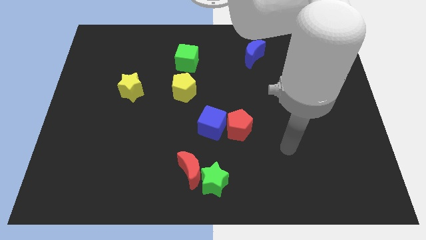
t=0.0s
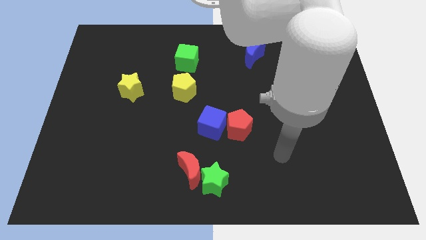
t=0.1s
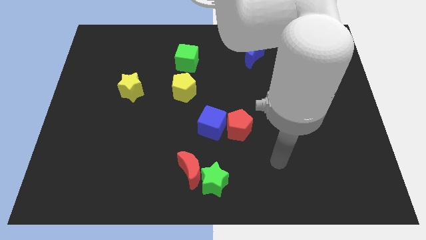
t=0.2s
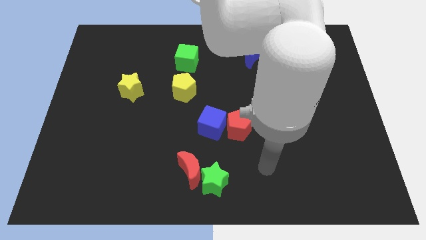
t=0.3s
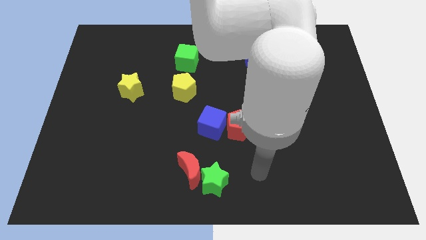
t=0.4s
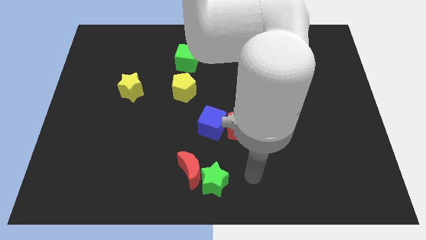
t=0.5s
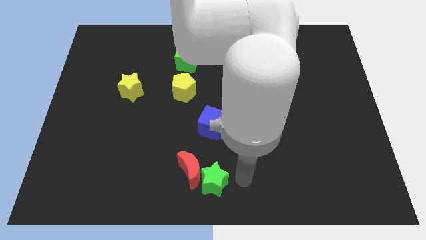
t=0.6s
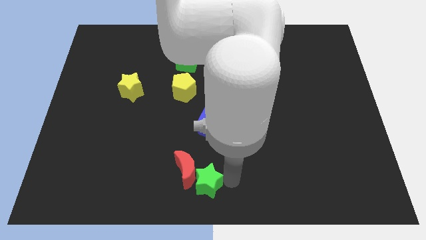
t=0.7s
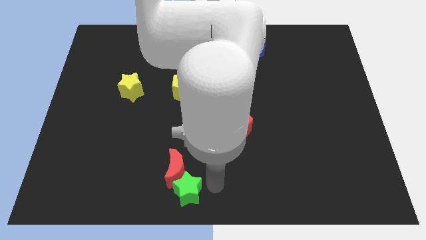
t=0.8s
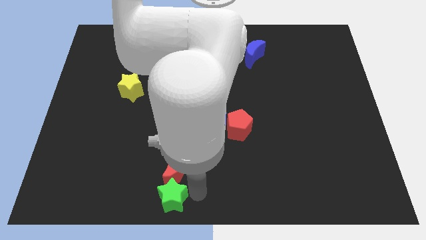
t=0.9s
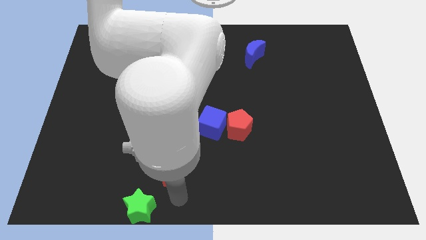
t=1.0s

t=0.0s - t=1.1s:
pull the red moon apart from the green star

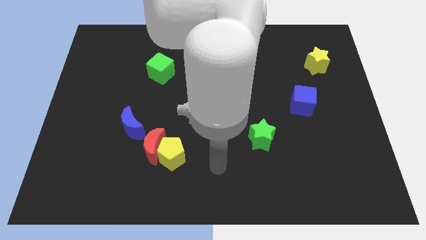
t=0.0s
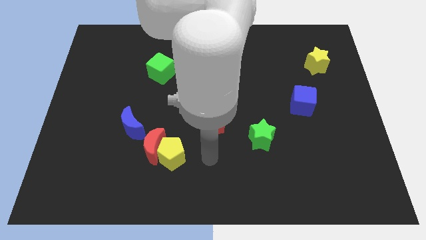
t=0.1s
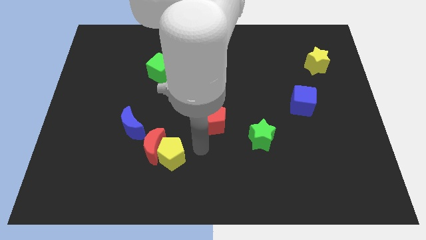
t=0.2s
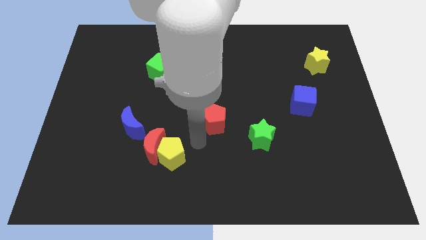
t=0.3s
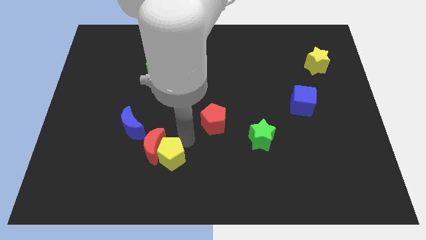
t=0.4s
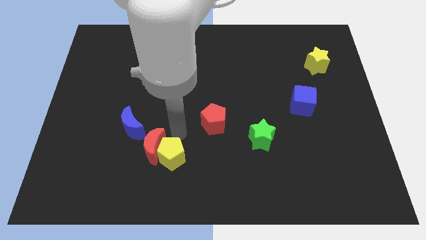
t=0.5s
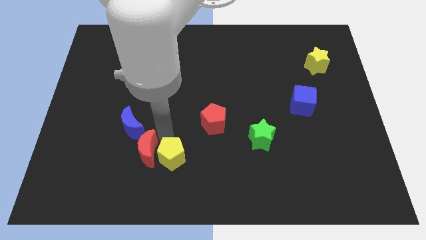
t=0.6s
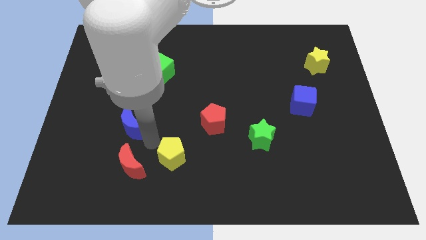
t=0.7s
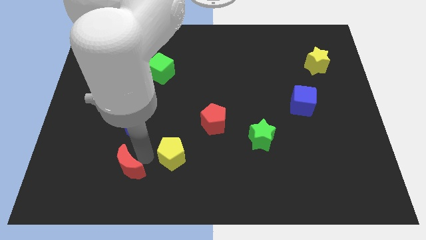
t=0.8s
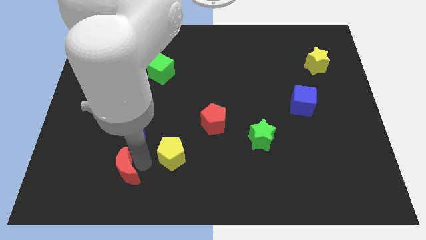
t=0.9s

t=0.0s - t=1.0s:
separate the yellow pentagon from the red moon

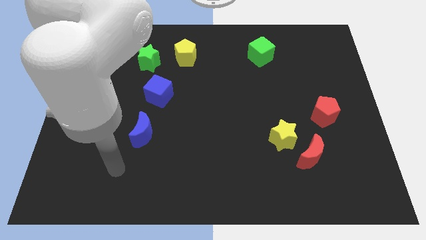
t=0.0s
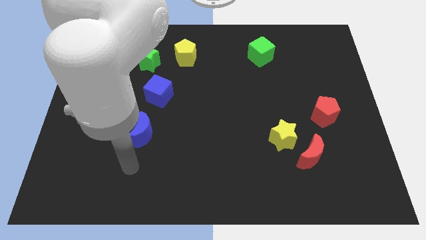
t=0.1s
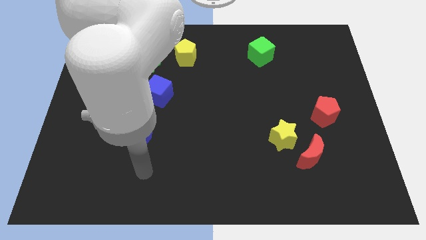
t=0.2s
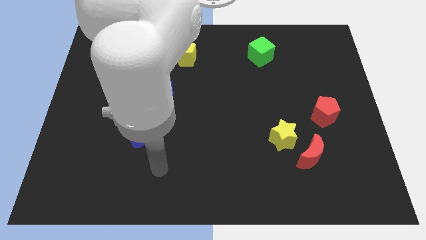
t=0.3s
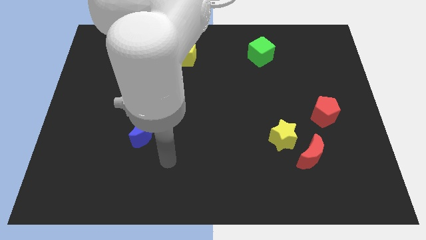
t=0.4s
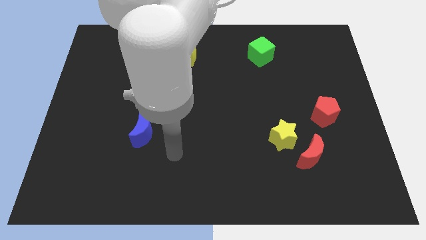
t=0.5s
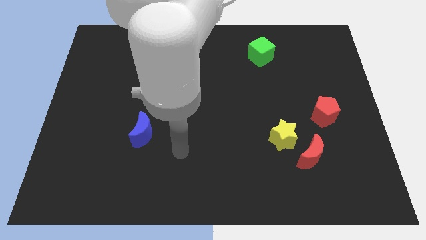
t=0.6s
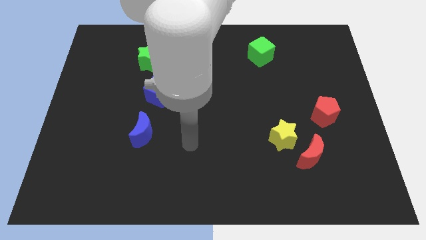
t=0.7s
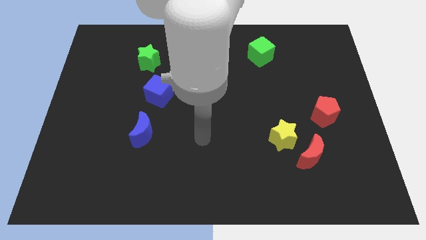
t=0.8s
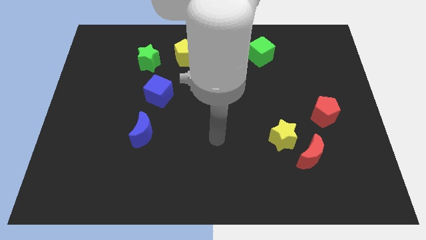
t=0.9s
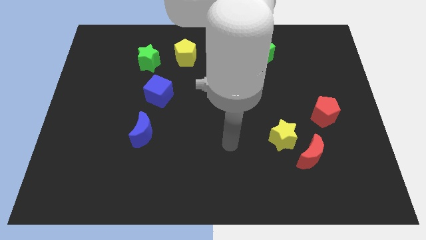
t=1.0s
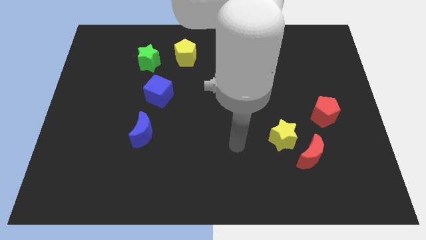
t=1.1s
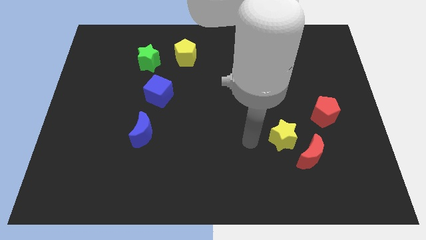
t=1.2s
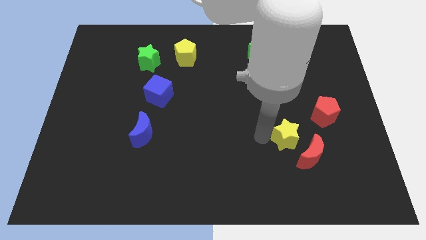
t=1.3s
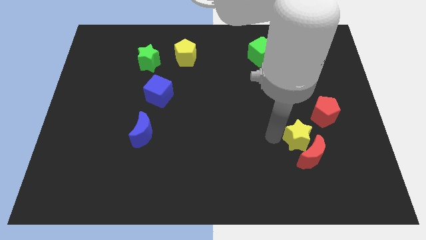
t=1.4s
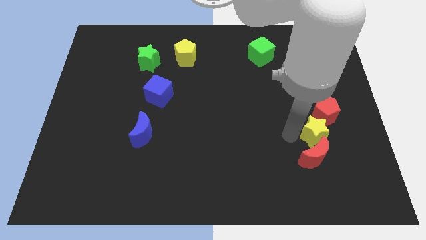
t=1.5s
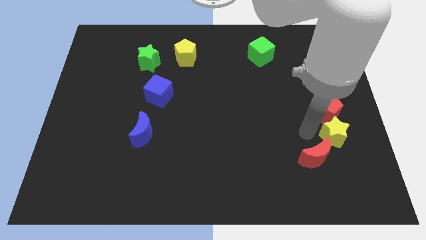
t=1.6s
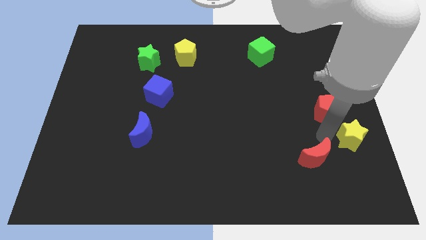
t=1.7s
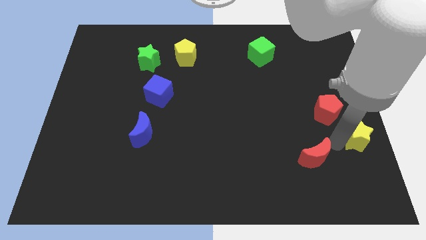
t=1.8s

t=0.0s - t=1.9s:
separate the red moon from the yellow star

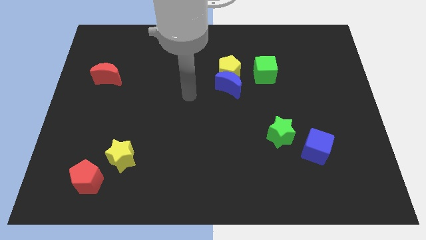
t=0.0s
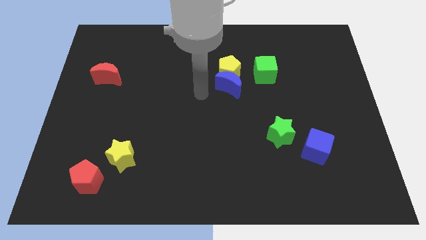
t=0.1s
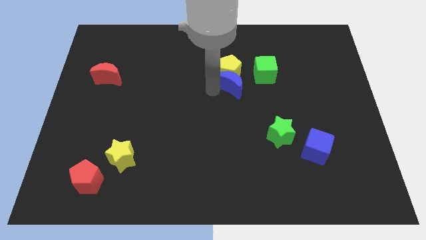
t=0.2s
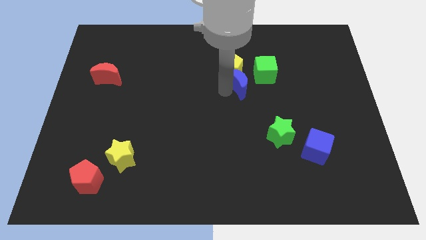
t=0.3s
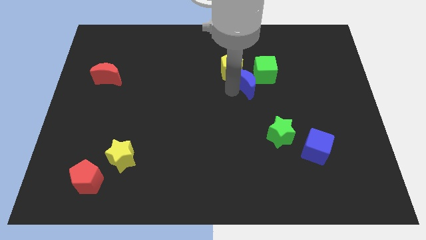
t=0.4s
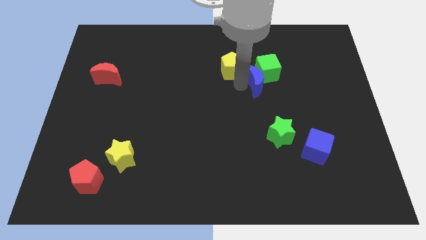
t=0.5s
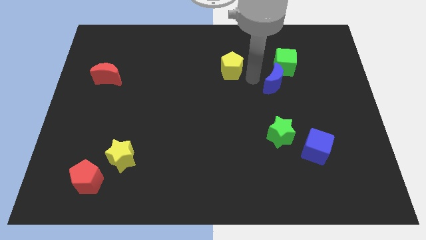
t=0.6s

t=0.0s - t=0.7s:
separate the yellow pentagon from the blue moon and green cube

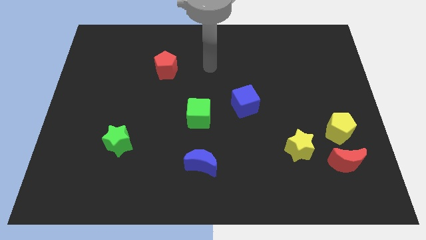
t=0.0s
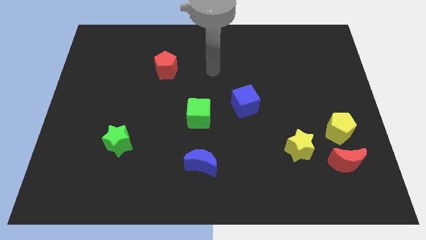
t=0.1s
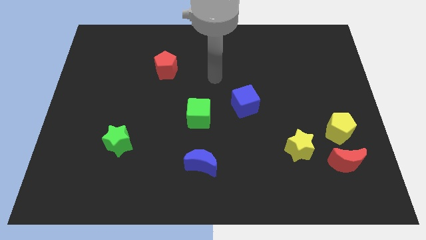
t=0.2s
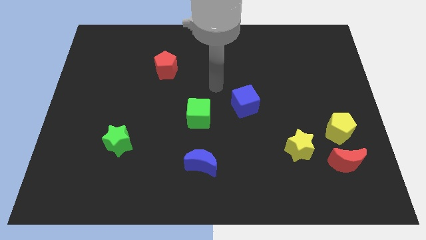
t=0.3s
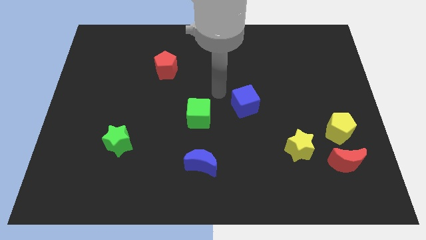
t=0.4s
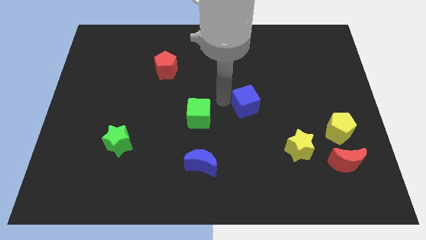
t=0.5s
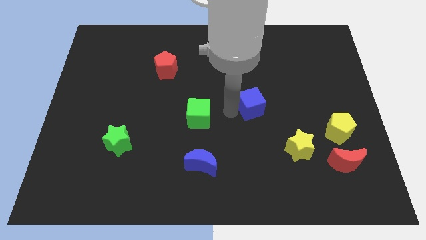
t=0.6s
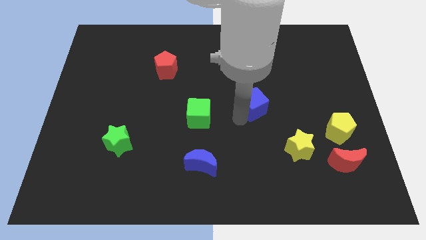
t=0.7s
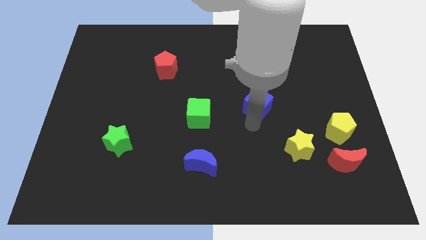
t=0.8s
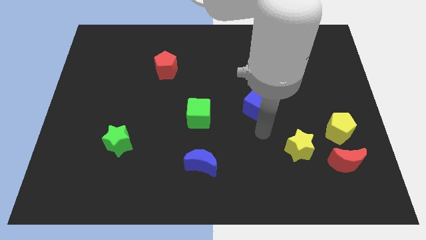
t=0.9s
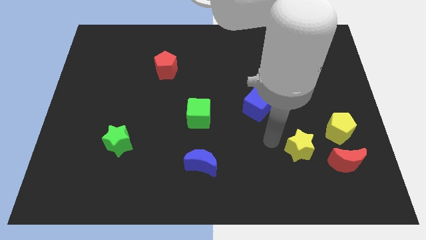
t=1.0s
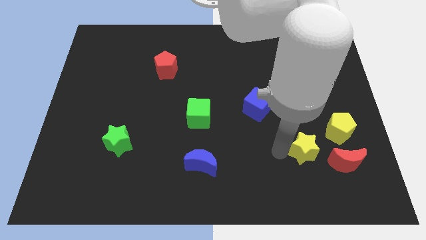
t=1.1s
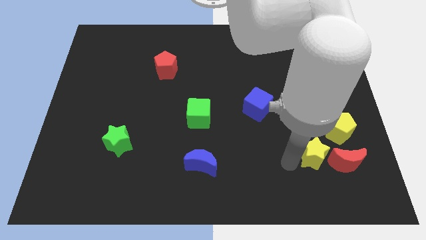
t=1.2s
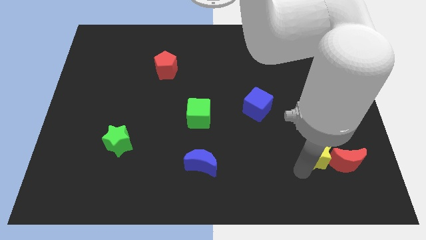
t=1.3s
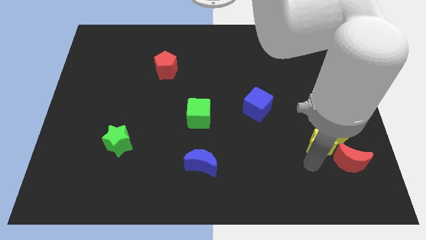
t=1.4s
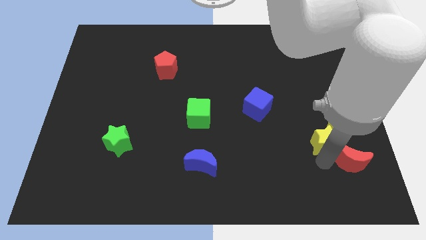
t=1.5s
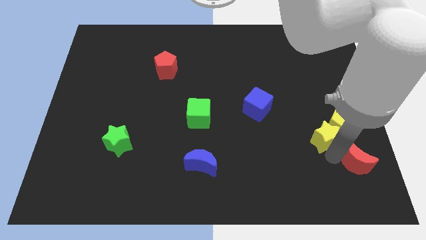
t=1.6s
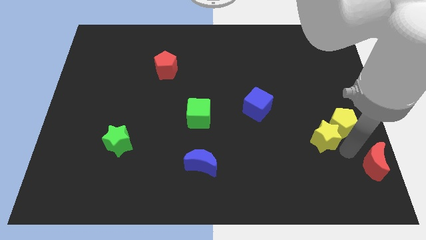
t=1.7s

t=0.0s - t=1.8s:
pull the yellow pentagon apart from the red moon

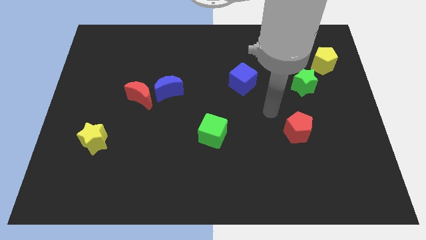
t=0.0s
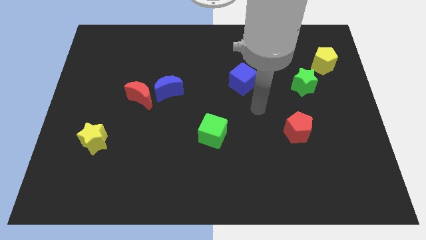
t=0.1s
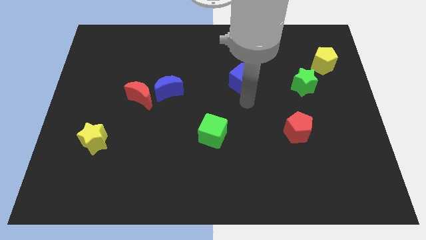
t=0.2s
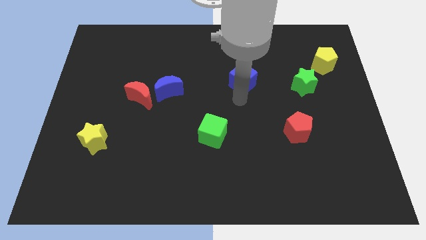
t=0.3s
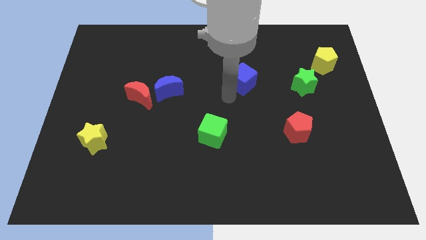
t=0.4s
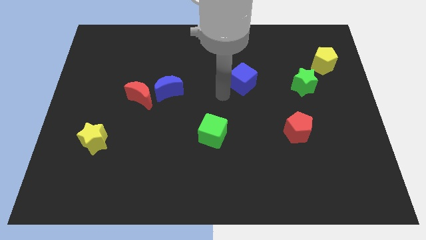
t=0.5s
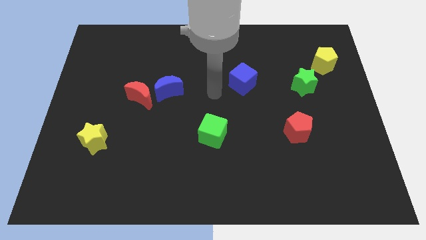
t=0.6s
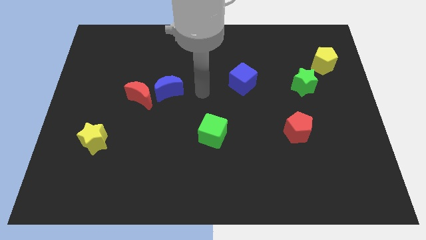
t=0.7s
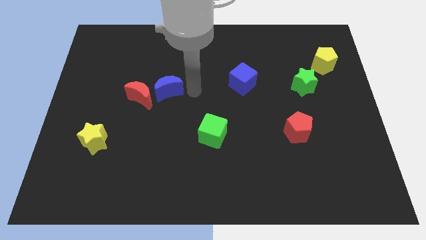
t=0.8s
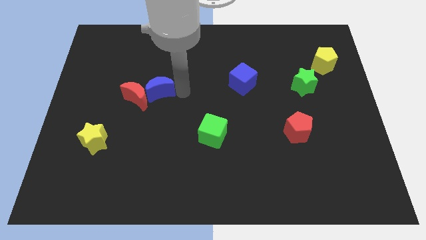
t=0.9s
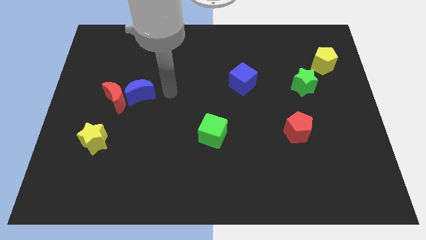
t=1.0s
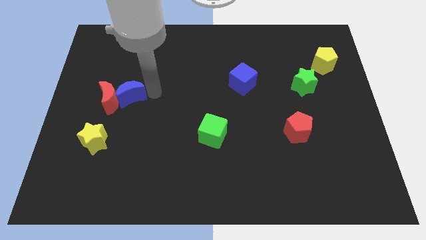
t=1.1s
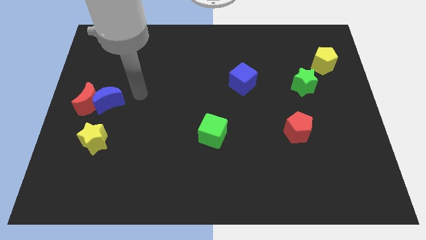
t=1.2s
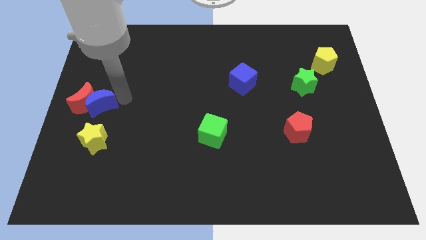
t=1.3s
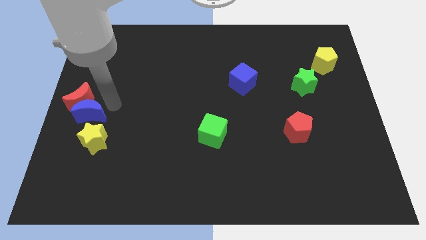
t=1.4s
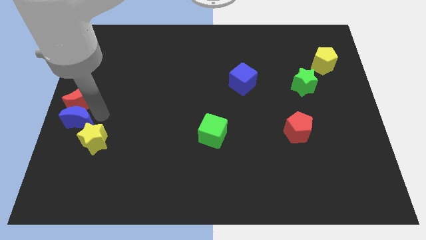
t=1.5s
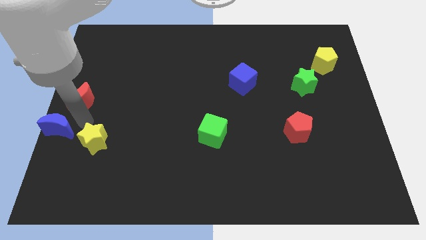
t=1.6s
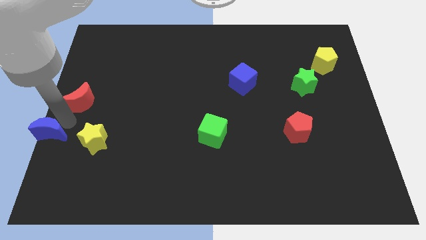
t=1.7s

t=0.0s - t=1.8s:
separate the red moon from the blue moon

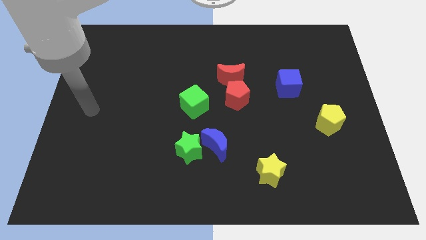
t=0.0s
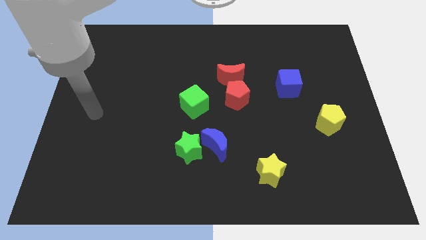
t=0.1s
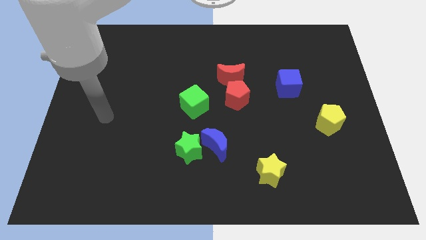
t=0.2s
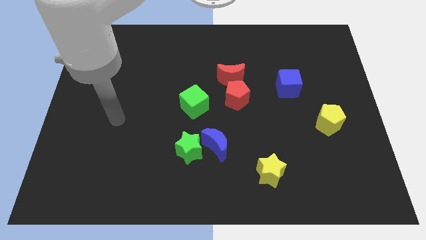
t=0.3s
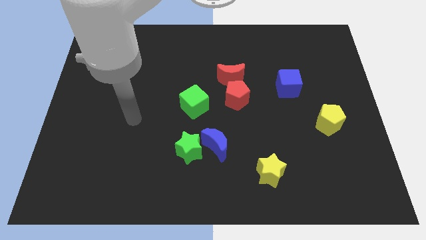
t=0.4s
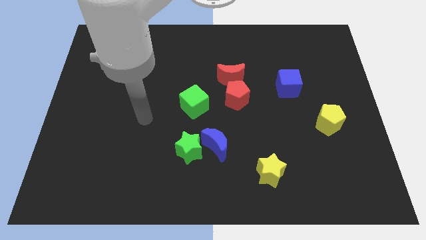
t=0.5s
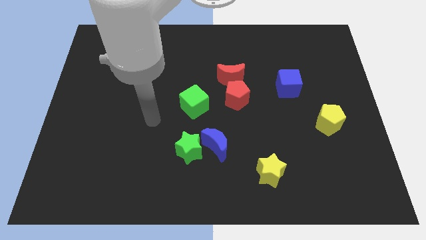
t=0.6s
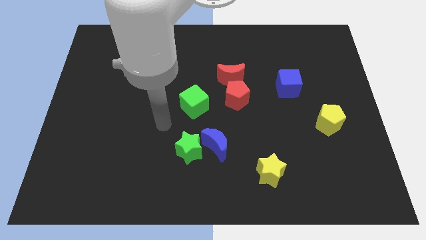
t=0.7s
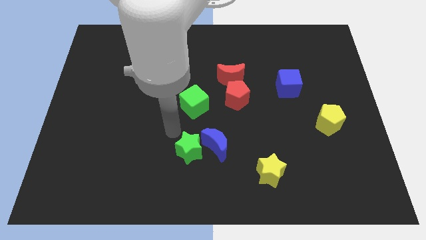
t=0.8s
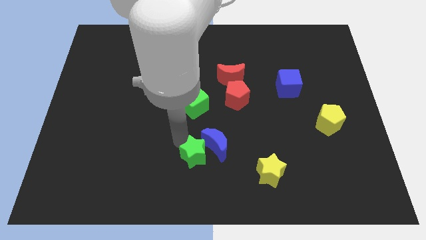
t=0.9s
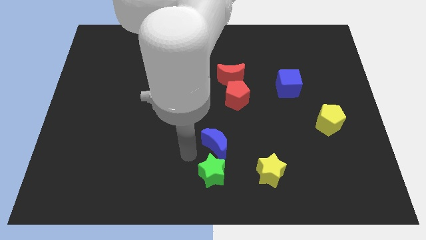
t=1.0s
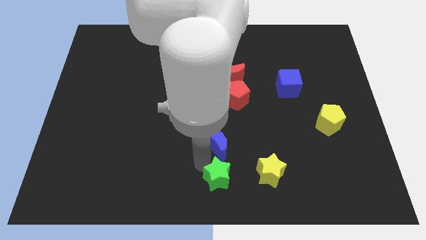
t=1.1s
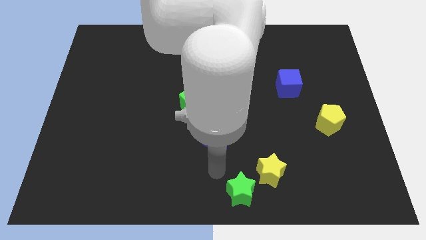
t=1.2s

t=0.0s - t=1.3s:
separate the blue moon from the green star
